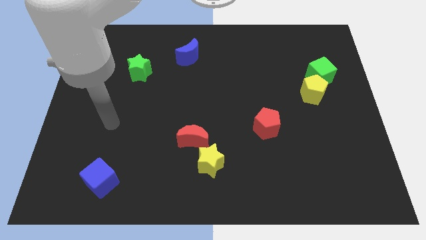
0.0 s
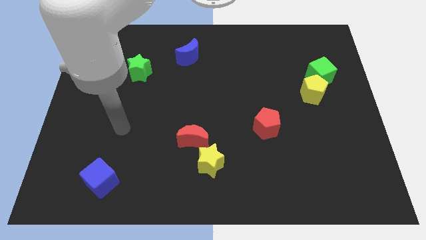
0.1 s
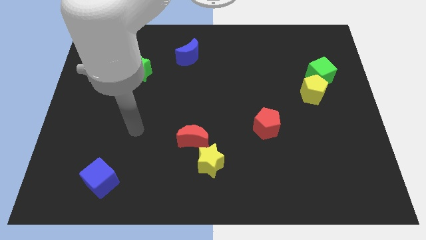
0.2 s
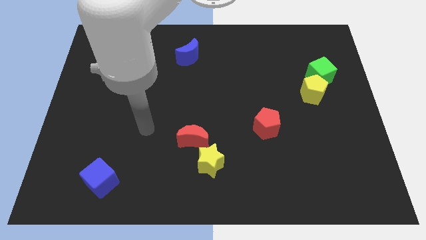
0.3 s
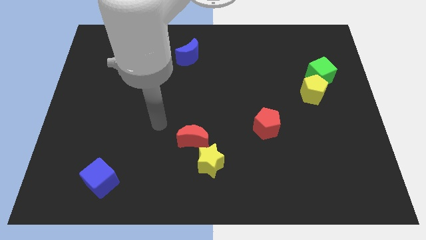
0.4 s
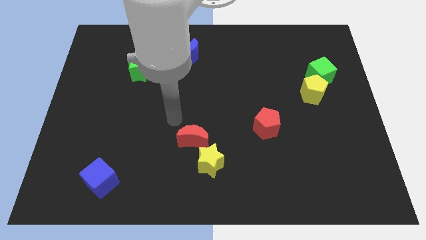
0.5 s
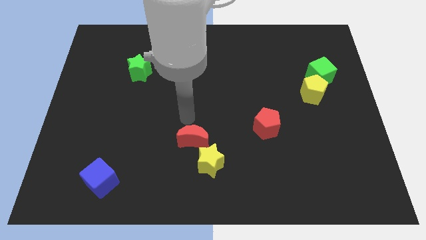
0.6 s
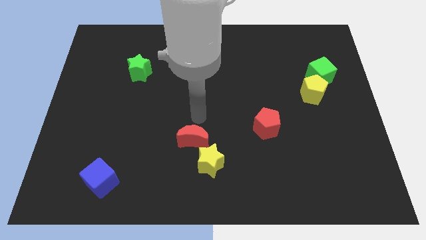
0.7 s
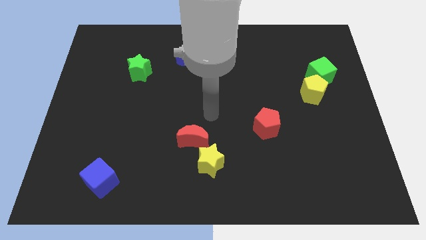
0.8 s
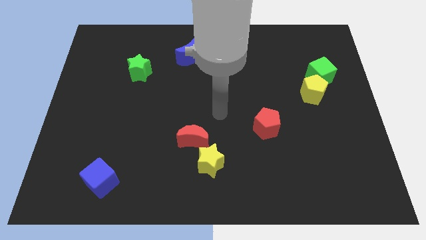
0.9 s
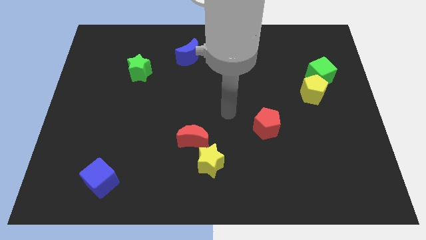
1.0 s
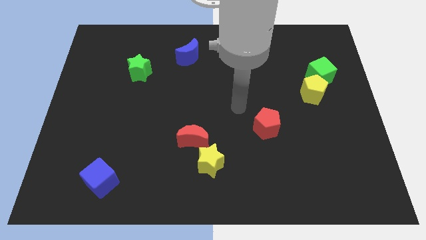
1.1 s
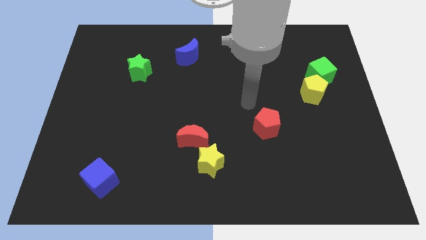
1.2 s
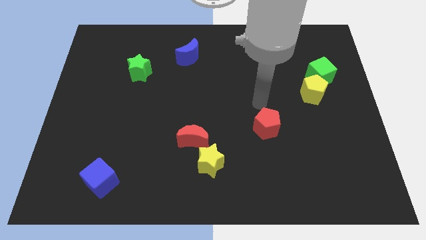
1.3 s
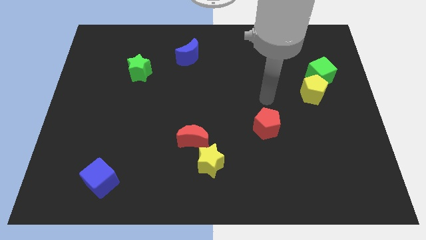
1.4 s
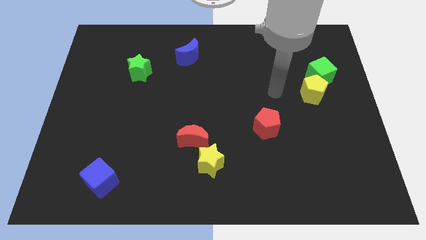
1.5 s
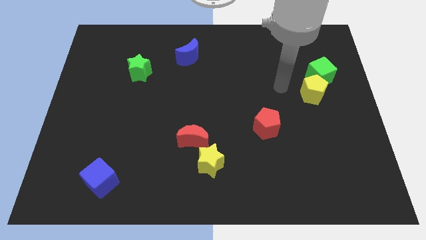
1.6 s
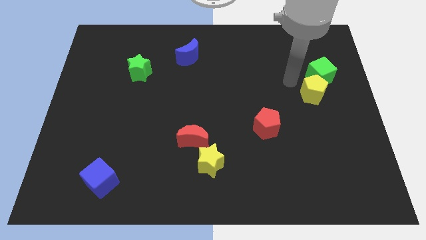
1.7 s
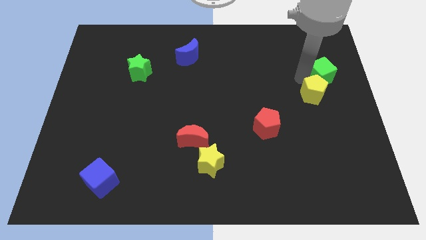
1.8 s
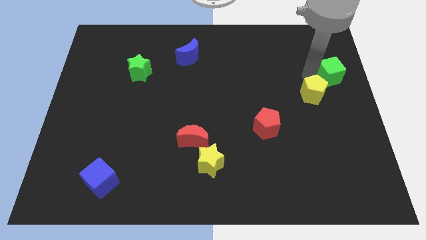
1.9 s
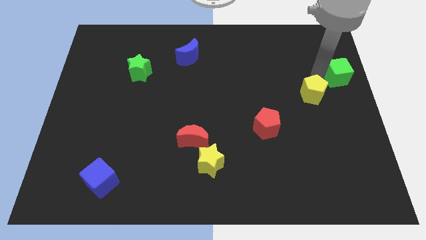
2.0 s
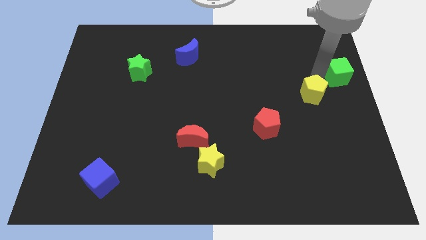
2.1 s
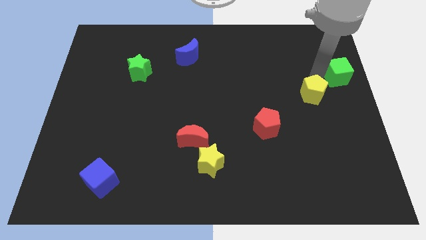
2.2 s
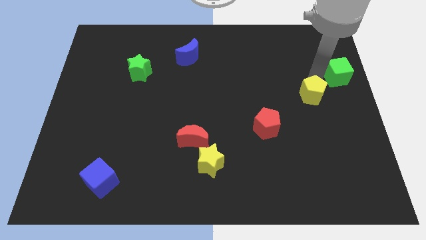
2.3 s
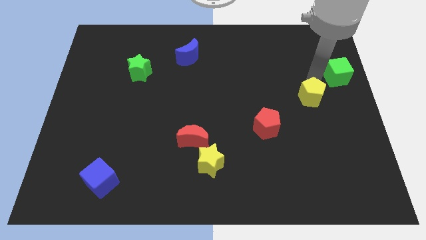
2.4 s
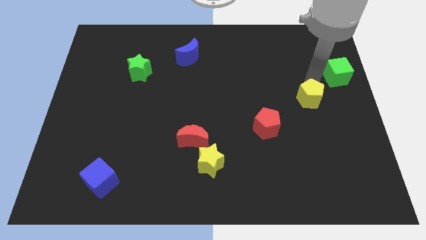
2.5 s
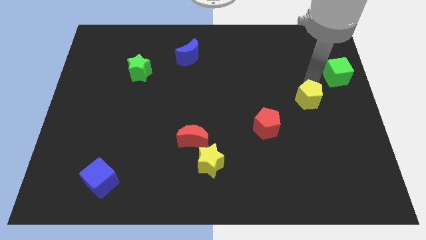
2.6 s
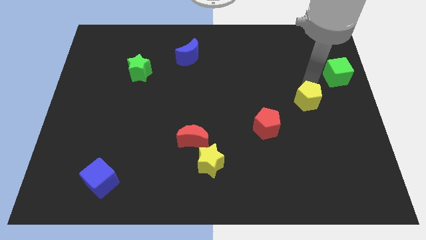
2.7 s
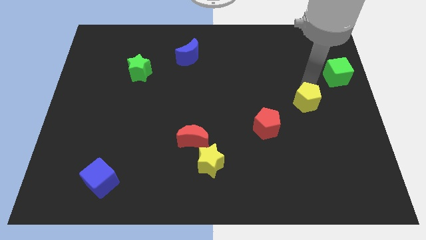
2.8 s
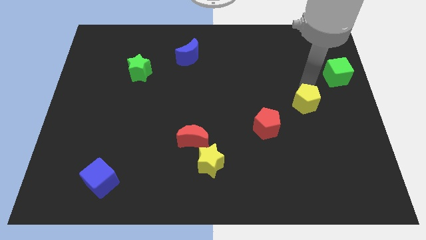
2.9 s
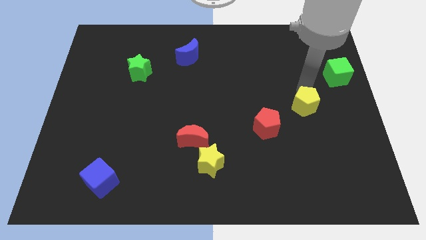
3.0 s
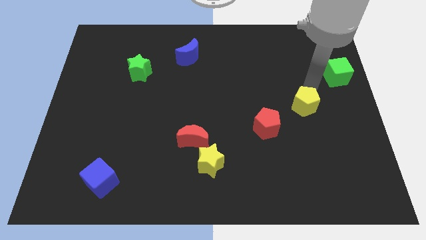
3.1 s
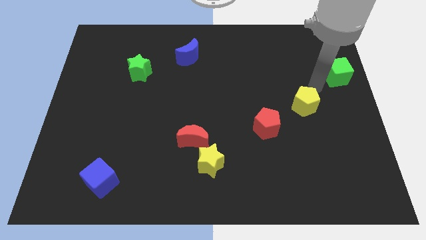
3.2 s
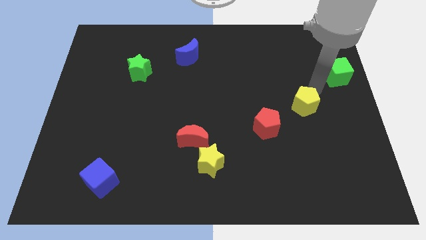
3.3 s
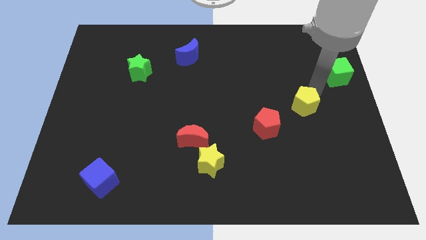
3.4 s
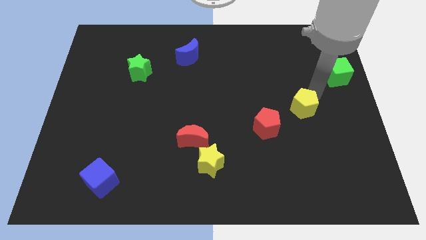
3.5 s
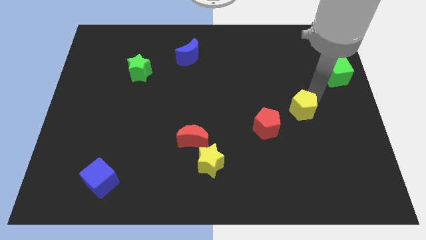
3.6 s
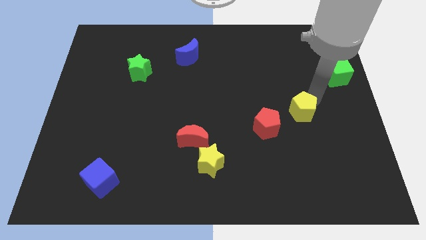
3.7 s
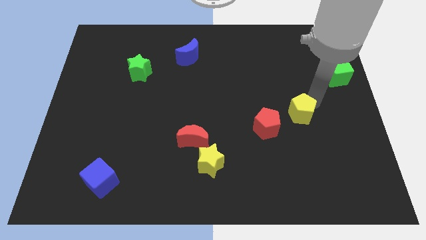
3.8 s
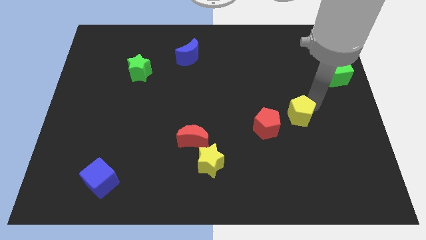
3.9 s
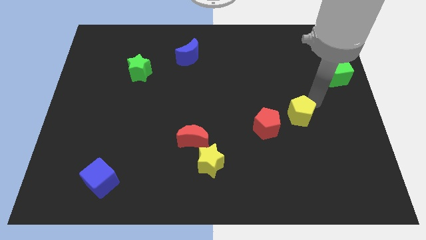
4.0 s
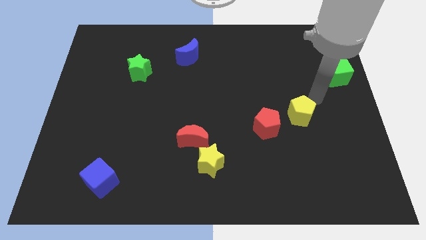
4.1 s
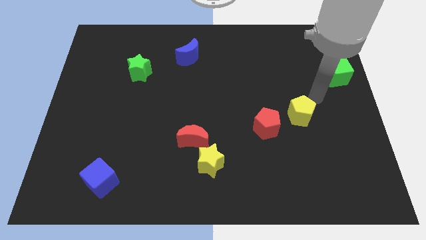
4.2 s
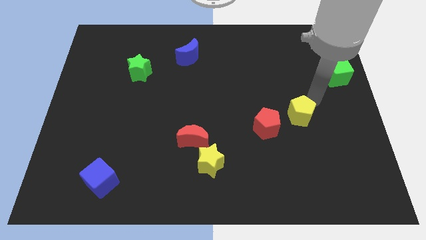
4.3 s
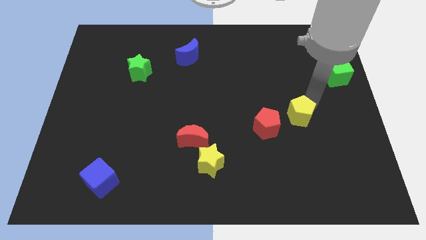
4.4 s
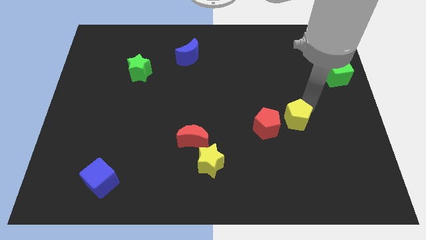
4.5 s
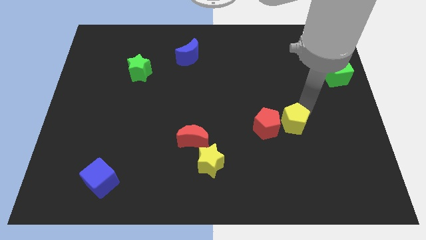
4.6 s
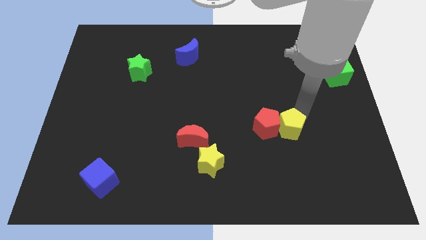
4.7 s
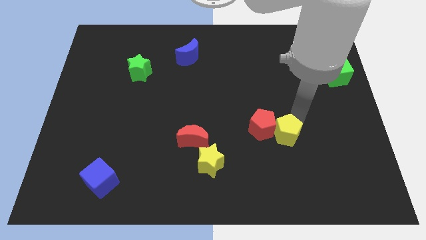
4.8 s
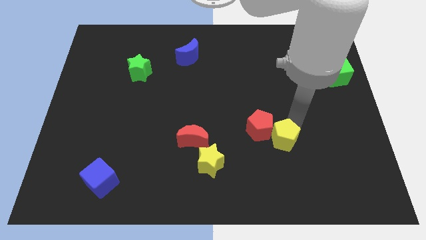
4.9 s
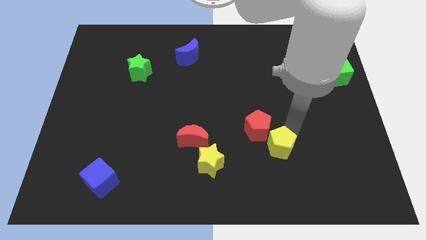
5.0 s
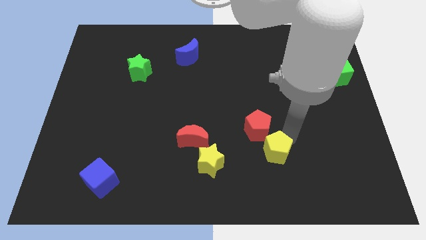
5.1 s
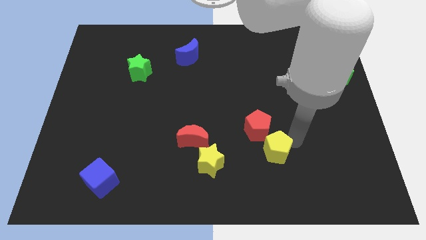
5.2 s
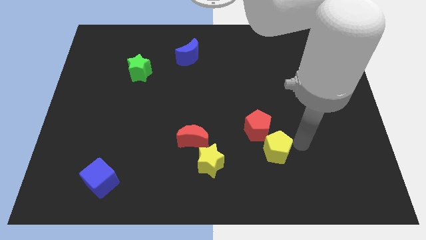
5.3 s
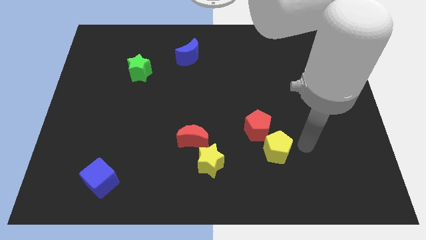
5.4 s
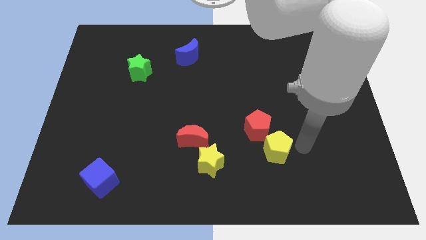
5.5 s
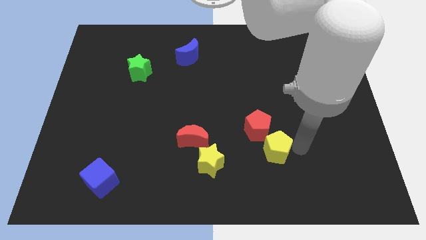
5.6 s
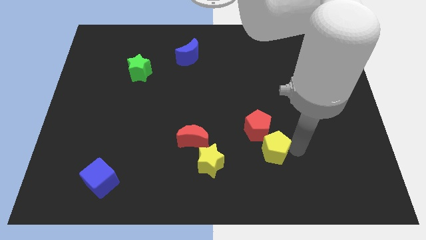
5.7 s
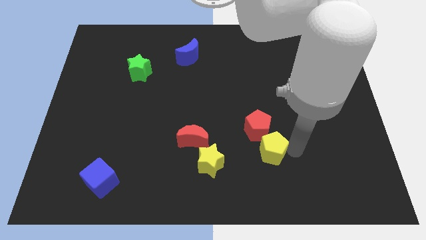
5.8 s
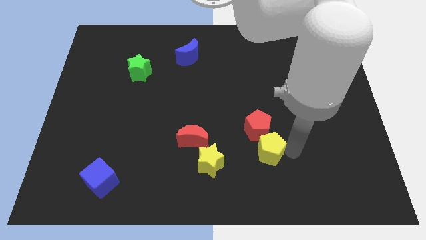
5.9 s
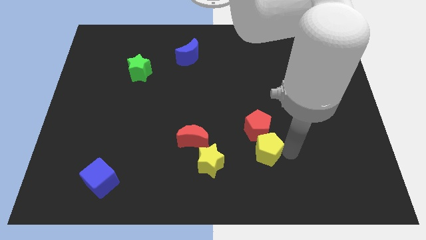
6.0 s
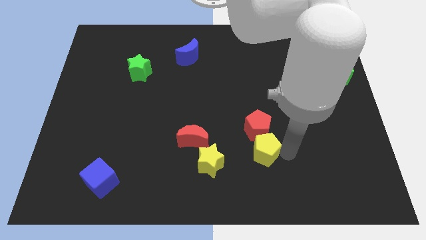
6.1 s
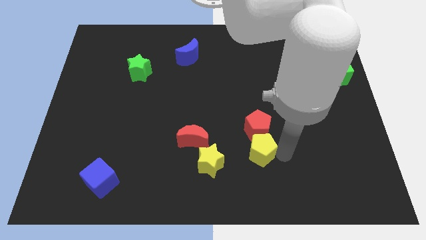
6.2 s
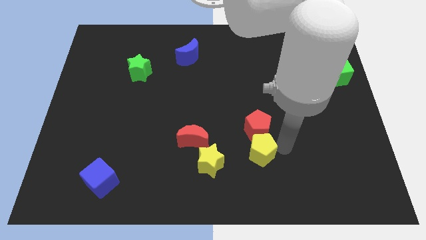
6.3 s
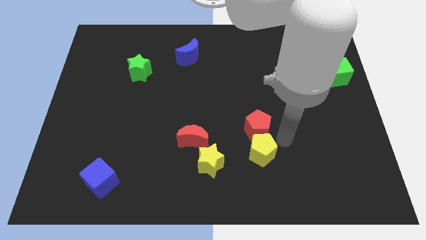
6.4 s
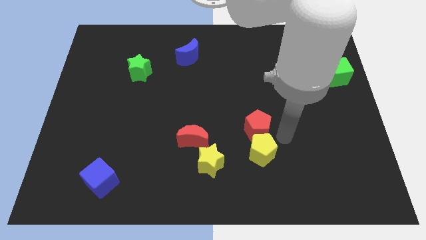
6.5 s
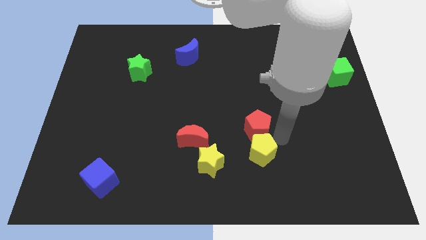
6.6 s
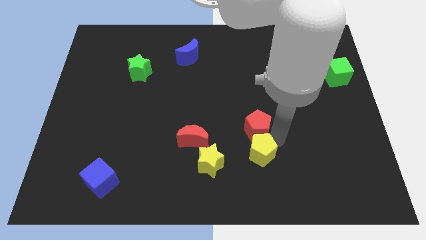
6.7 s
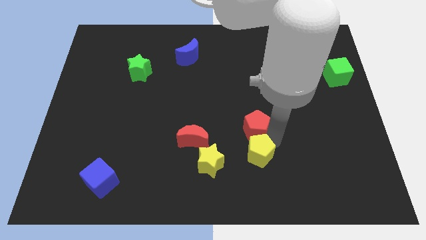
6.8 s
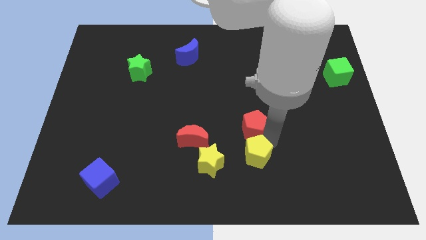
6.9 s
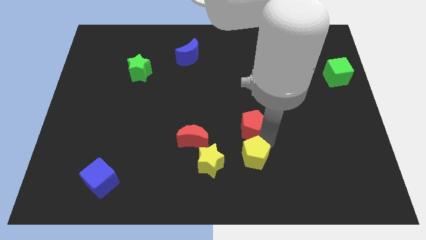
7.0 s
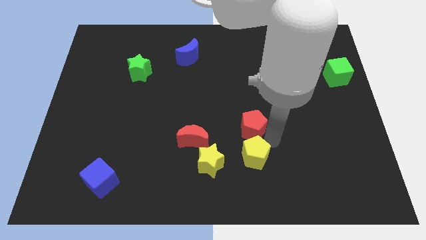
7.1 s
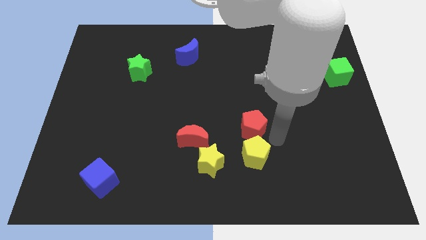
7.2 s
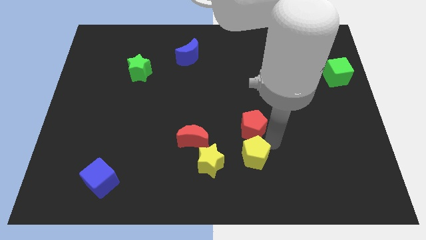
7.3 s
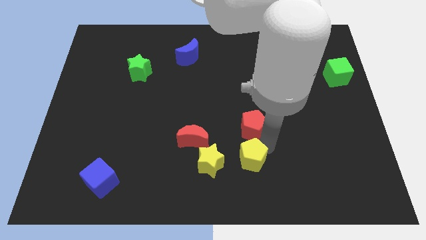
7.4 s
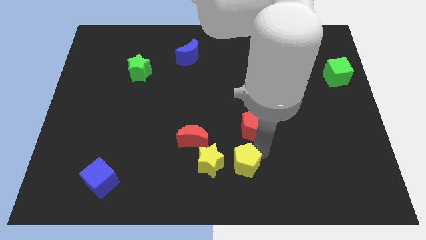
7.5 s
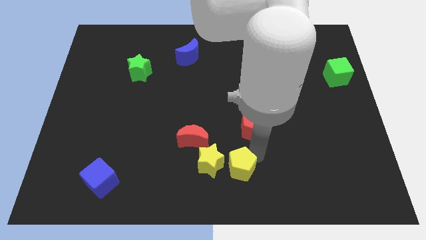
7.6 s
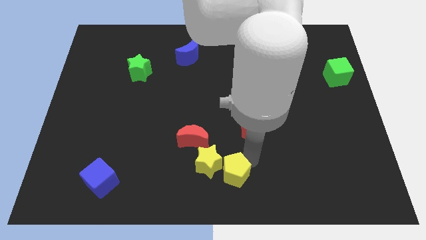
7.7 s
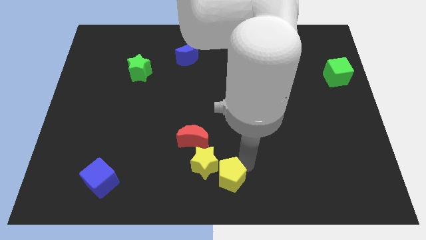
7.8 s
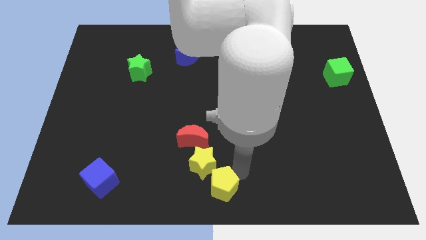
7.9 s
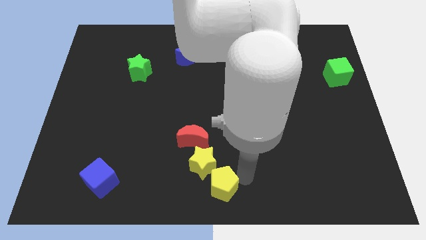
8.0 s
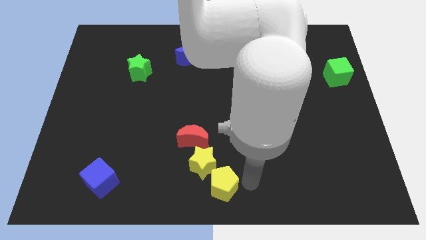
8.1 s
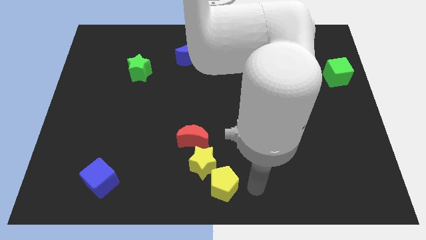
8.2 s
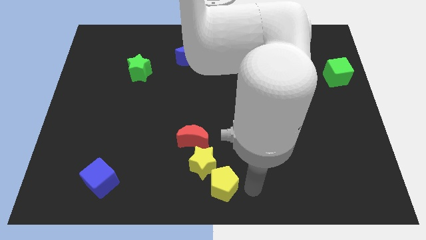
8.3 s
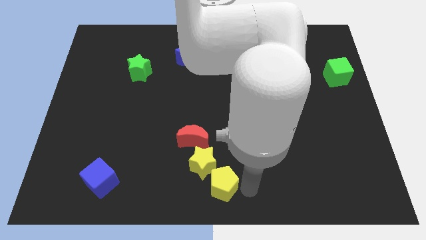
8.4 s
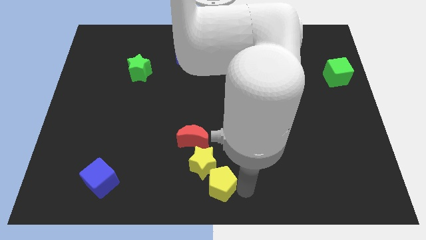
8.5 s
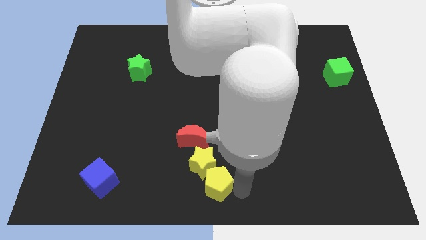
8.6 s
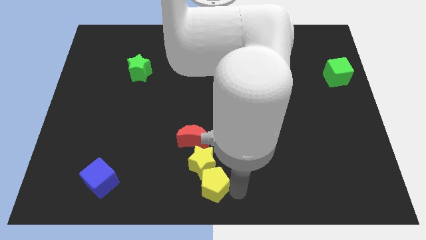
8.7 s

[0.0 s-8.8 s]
put the yellow pentagon to the bottom of the red moon
